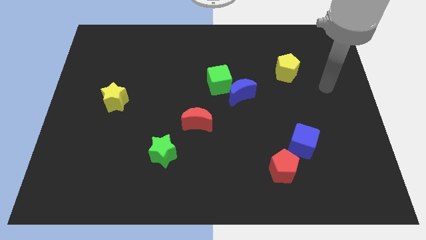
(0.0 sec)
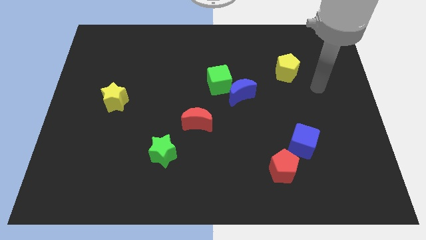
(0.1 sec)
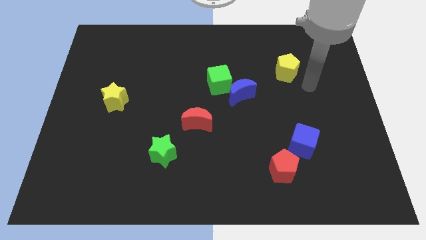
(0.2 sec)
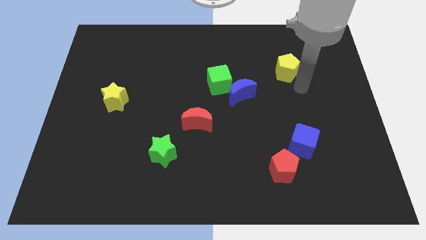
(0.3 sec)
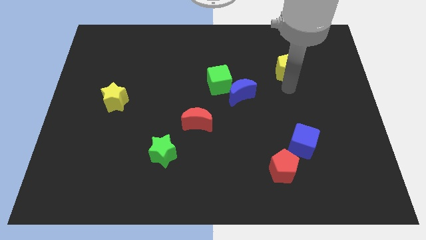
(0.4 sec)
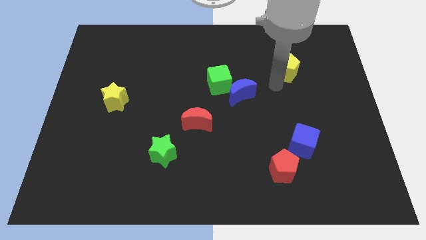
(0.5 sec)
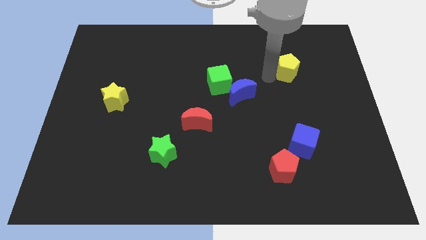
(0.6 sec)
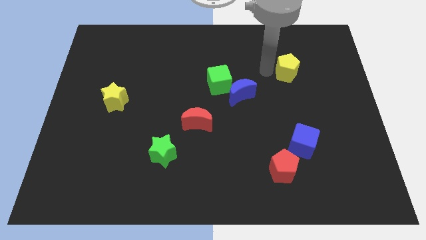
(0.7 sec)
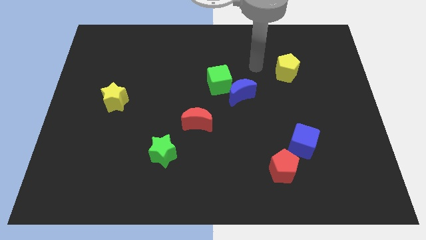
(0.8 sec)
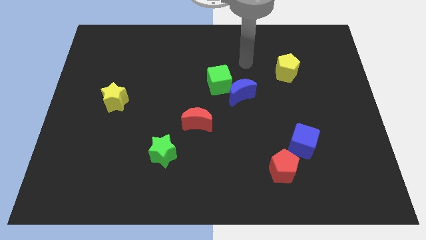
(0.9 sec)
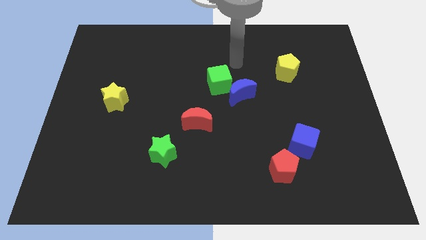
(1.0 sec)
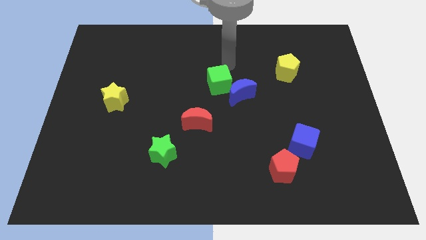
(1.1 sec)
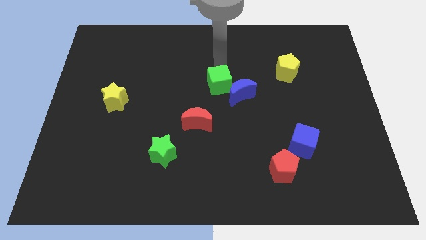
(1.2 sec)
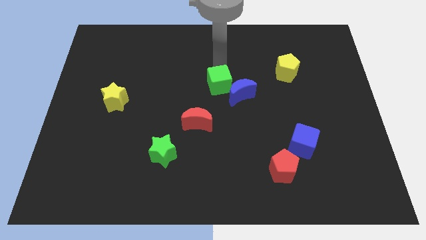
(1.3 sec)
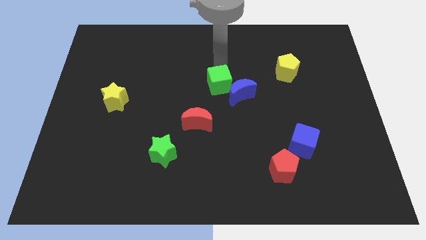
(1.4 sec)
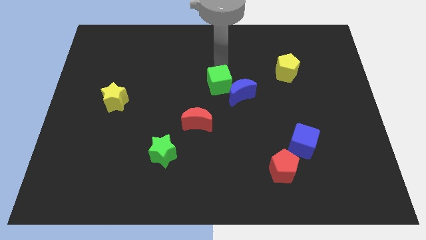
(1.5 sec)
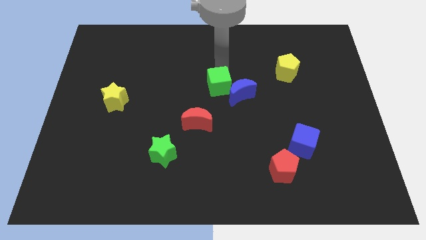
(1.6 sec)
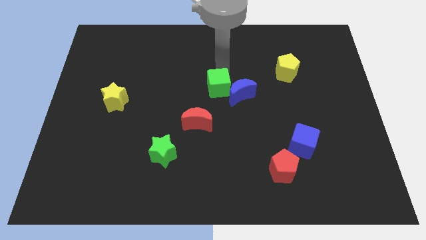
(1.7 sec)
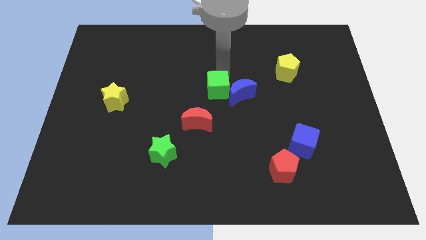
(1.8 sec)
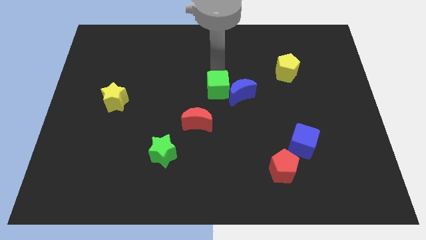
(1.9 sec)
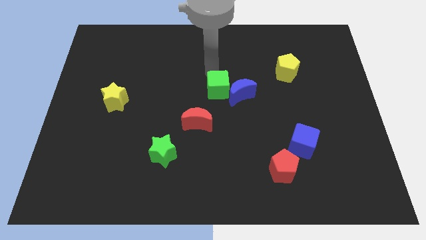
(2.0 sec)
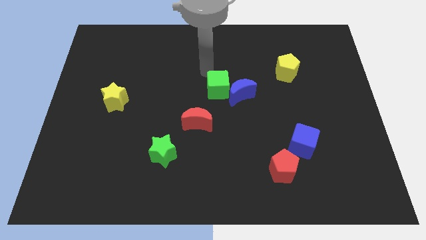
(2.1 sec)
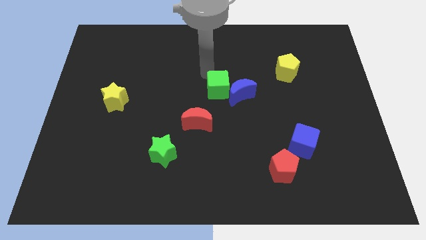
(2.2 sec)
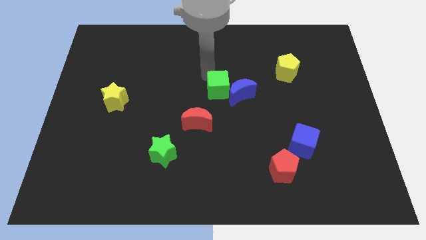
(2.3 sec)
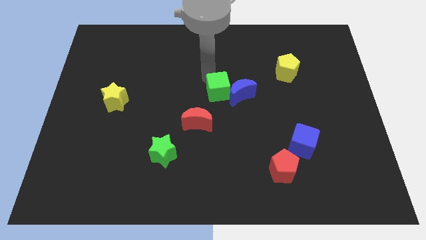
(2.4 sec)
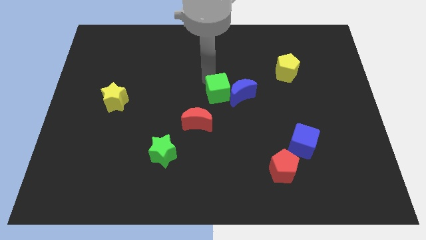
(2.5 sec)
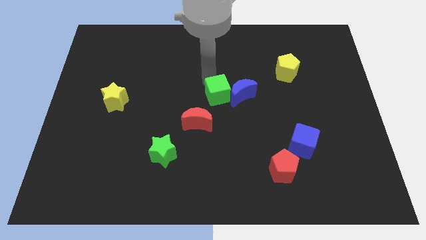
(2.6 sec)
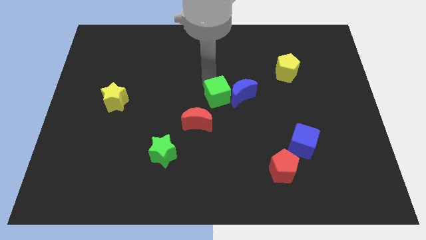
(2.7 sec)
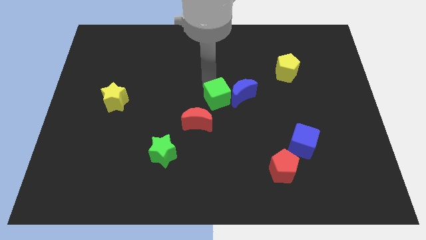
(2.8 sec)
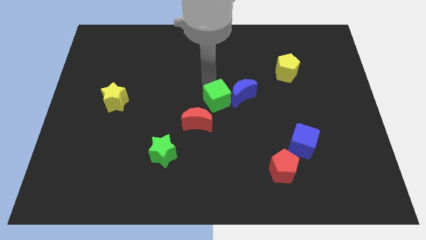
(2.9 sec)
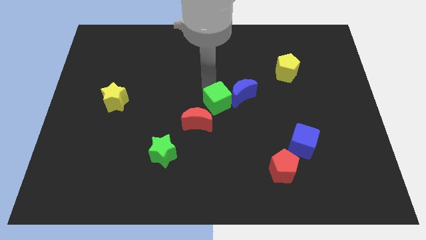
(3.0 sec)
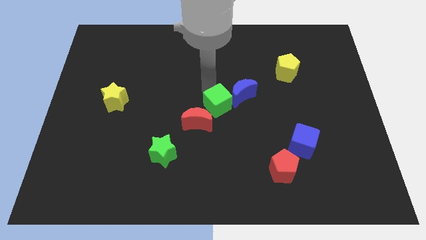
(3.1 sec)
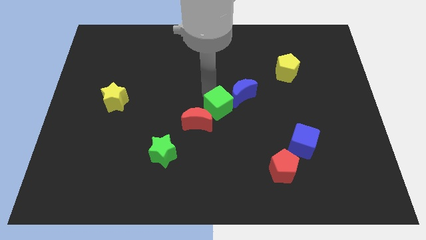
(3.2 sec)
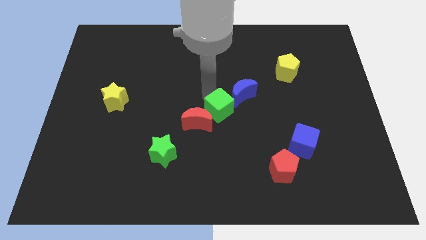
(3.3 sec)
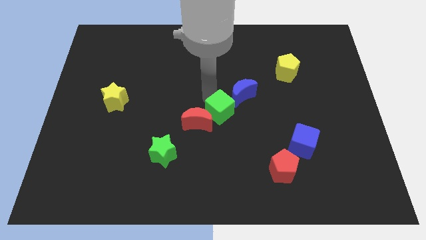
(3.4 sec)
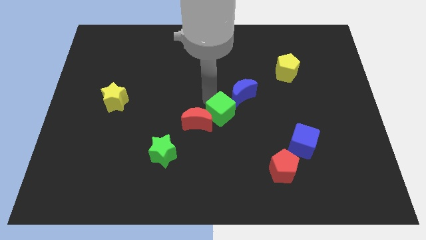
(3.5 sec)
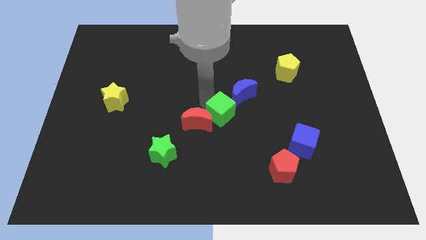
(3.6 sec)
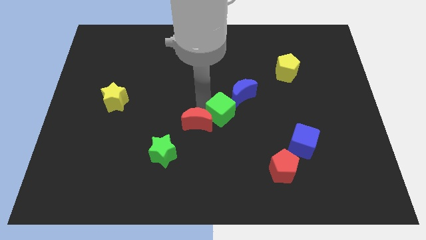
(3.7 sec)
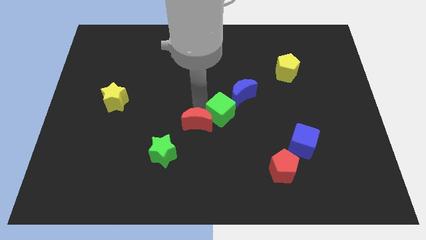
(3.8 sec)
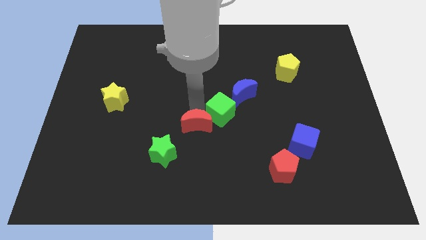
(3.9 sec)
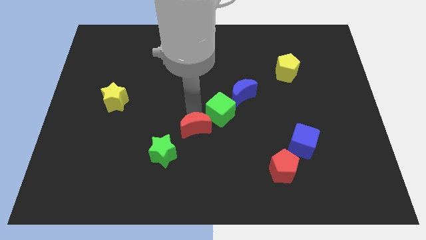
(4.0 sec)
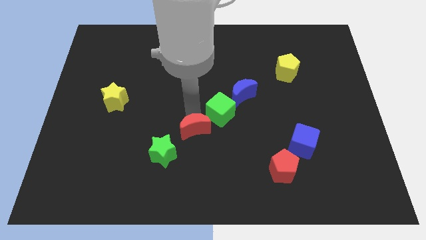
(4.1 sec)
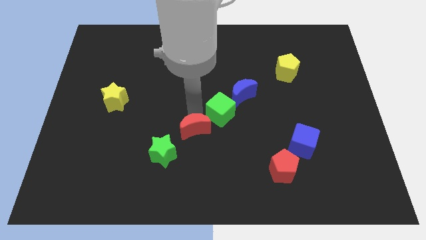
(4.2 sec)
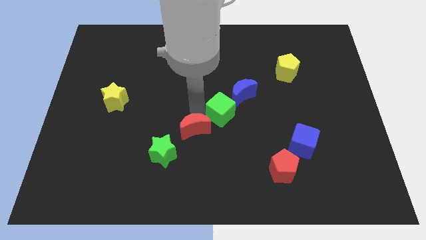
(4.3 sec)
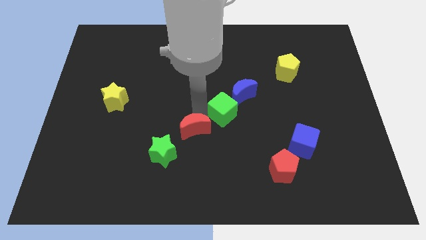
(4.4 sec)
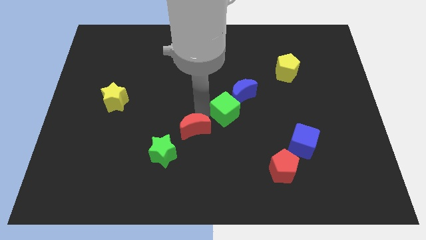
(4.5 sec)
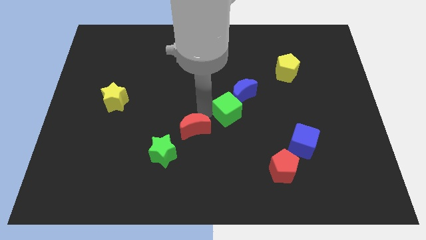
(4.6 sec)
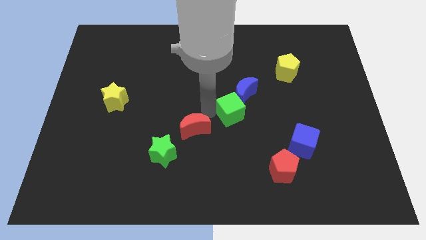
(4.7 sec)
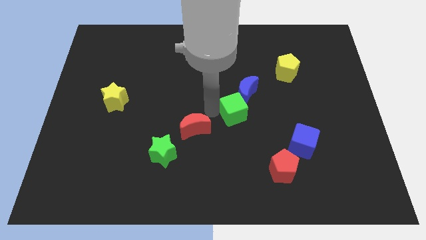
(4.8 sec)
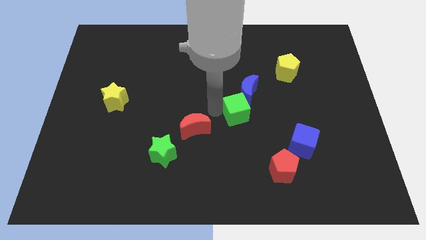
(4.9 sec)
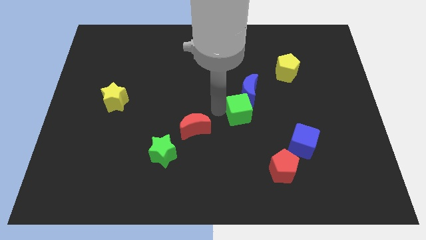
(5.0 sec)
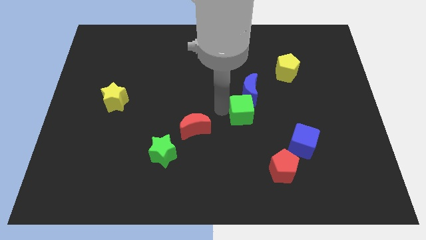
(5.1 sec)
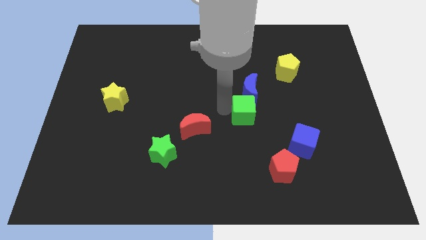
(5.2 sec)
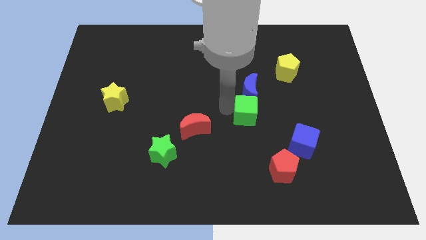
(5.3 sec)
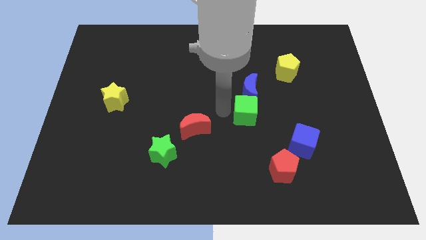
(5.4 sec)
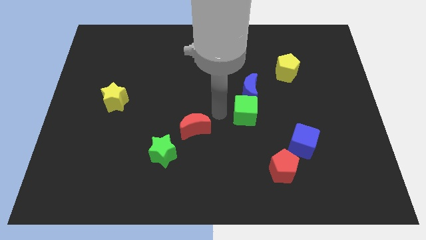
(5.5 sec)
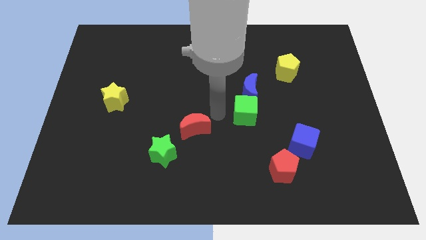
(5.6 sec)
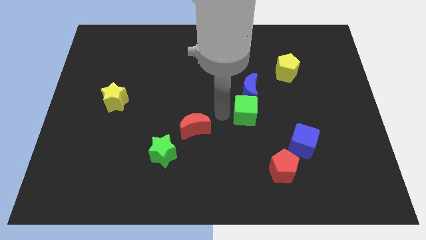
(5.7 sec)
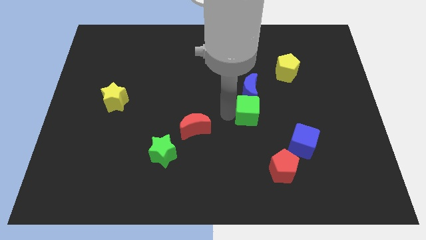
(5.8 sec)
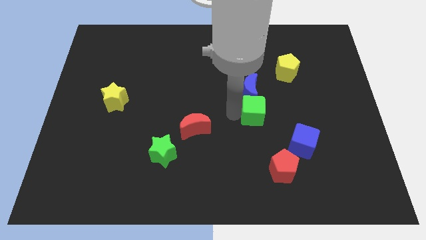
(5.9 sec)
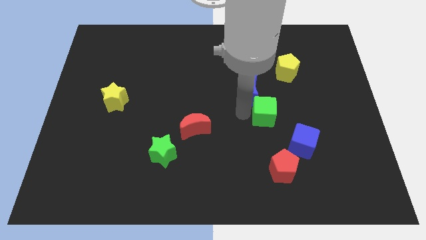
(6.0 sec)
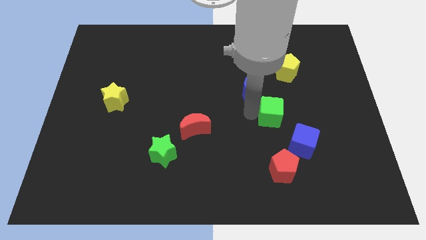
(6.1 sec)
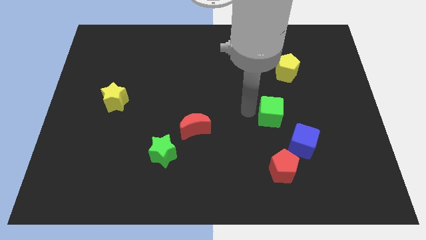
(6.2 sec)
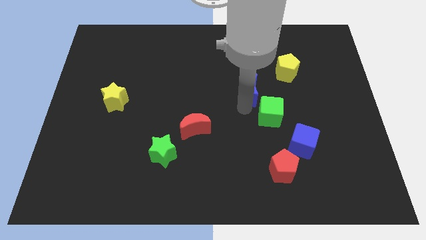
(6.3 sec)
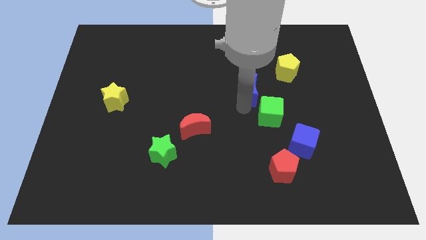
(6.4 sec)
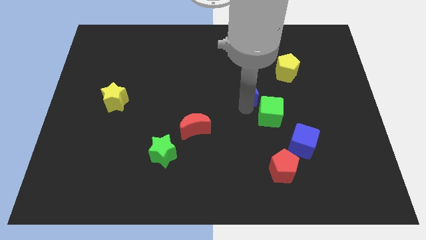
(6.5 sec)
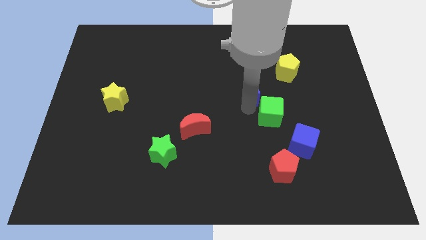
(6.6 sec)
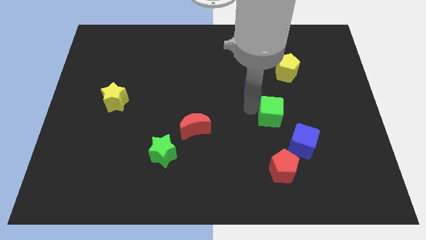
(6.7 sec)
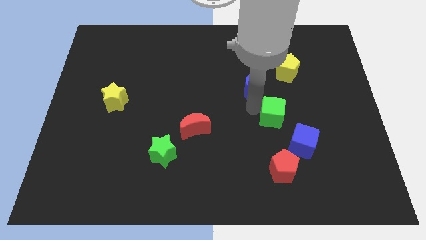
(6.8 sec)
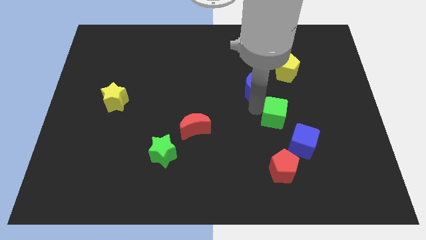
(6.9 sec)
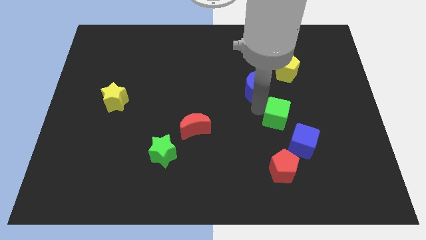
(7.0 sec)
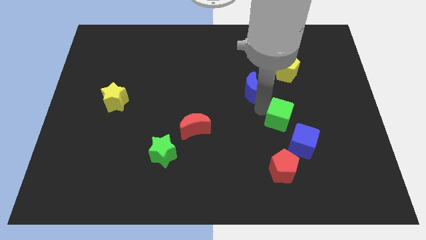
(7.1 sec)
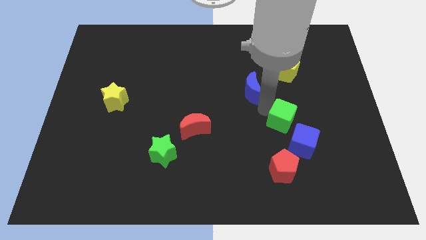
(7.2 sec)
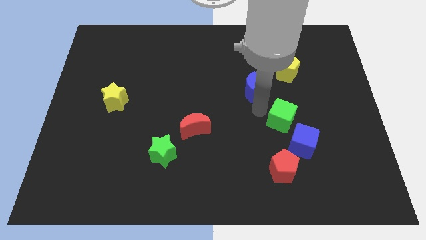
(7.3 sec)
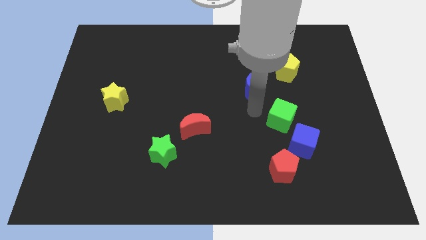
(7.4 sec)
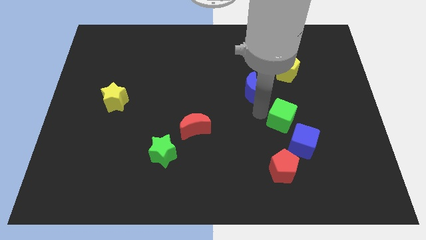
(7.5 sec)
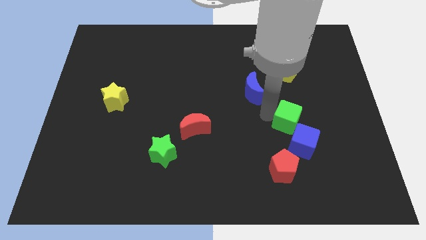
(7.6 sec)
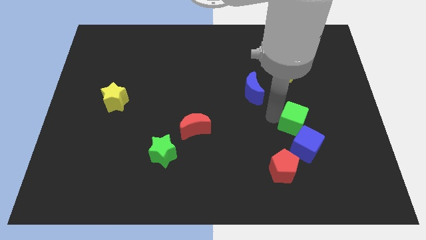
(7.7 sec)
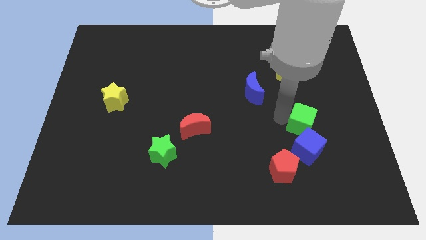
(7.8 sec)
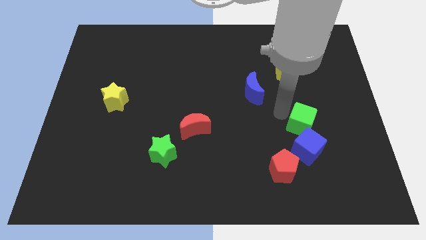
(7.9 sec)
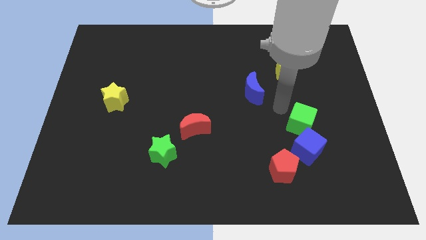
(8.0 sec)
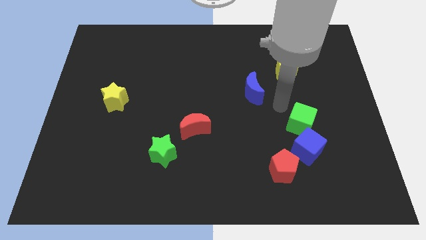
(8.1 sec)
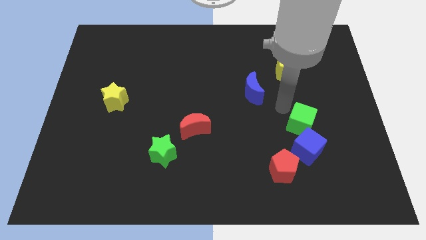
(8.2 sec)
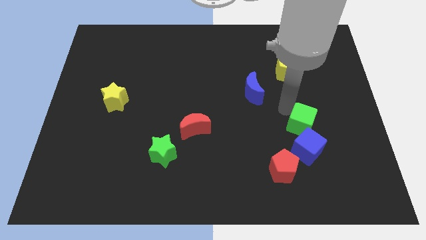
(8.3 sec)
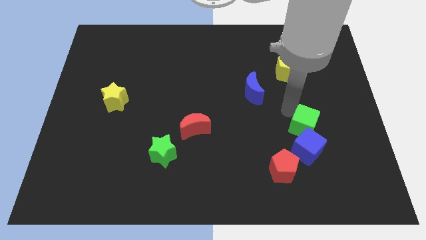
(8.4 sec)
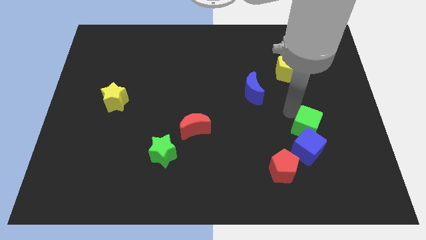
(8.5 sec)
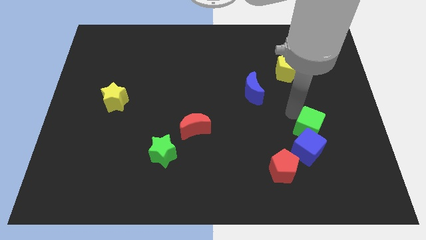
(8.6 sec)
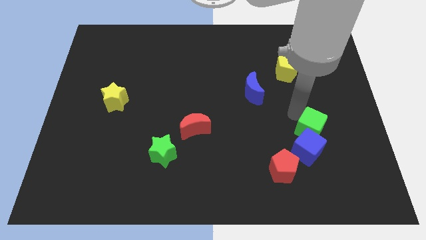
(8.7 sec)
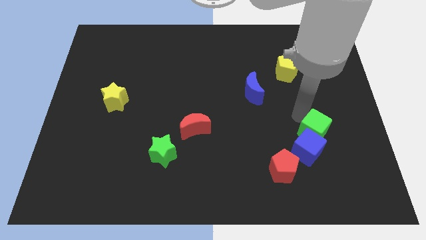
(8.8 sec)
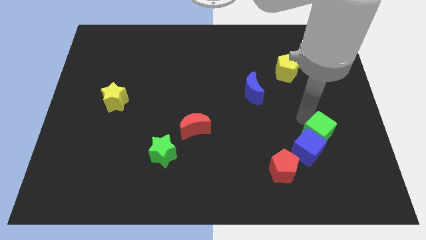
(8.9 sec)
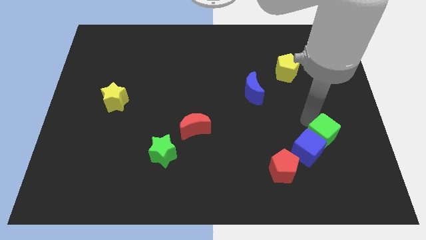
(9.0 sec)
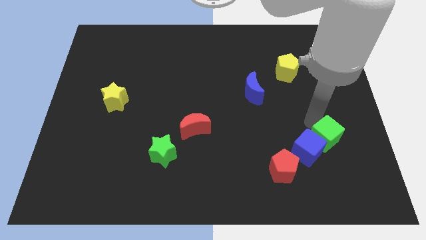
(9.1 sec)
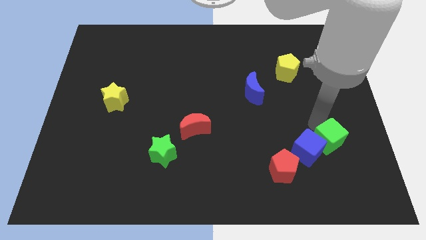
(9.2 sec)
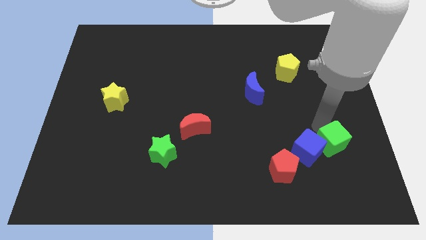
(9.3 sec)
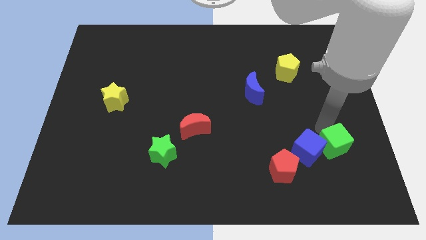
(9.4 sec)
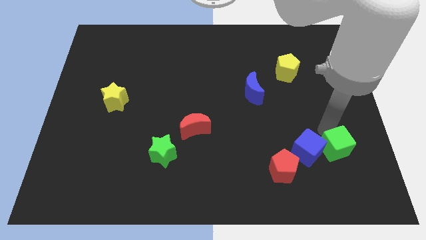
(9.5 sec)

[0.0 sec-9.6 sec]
slide the green cube to the bottom right side of the blue cube
